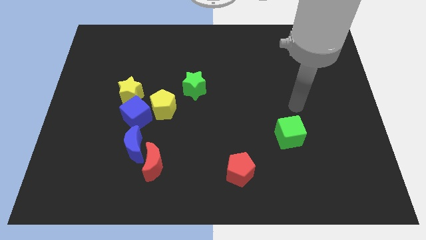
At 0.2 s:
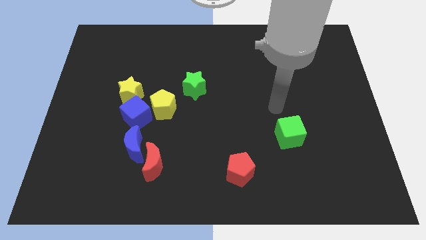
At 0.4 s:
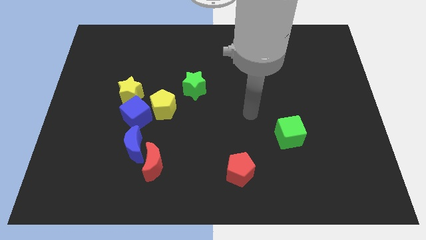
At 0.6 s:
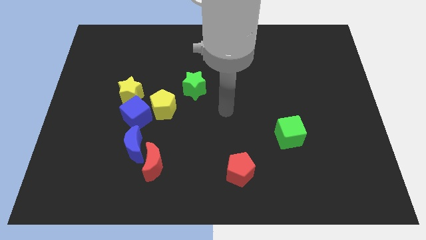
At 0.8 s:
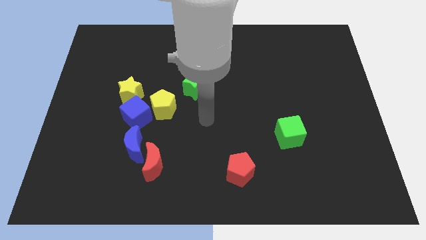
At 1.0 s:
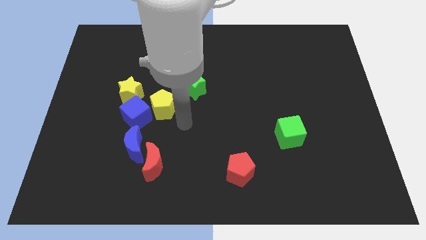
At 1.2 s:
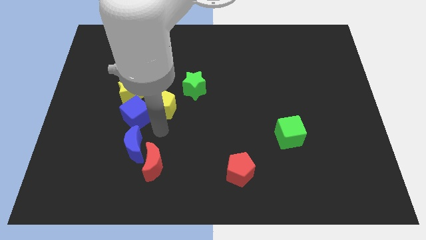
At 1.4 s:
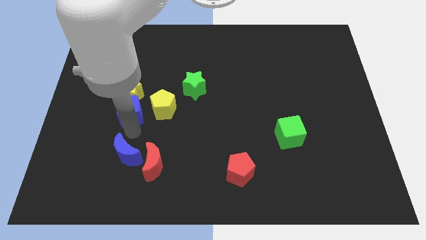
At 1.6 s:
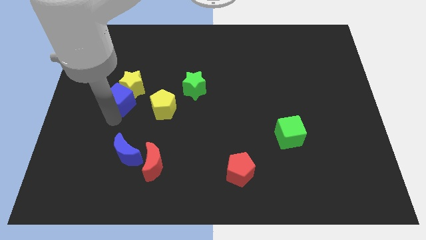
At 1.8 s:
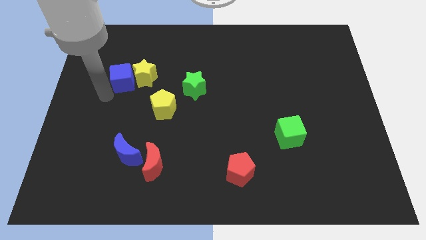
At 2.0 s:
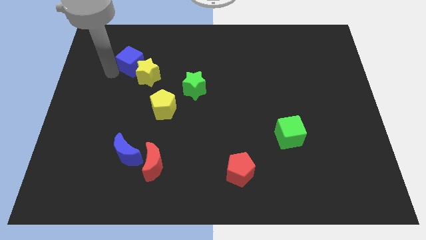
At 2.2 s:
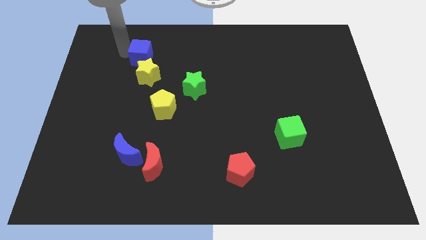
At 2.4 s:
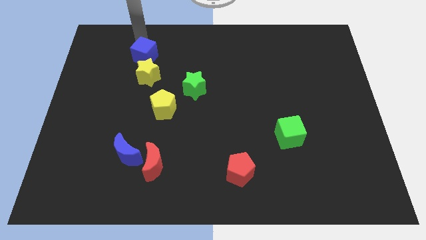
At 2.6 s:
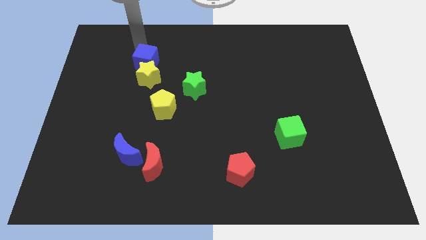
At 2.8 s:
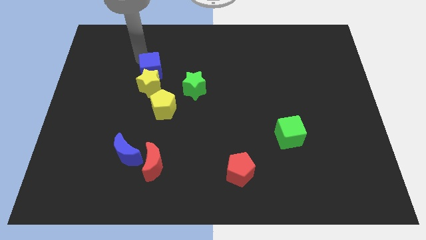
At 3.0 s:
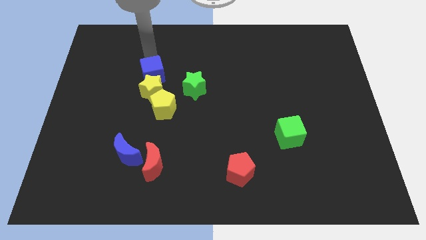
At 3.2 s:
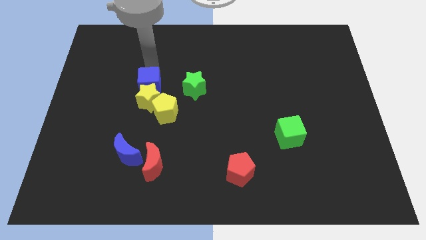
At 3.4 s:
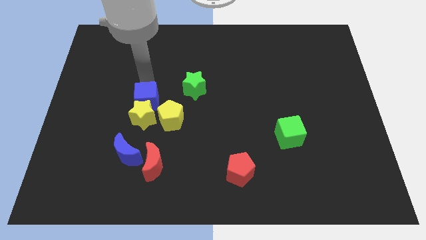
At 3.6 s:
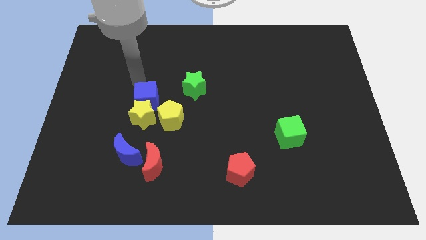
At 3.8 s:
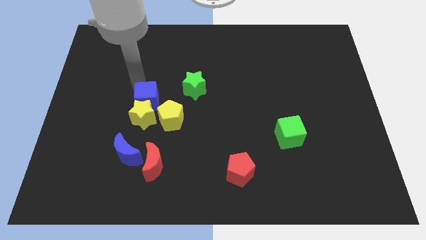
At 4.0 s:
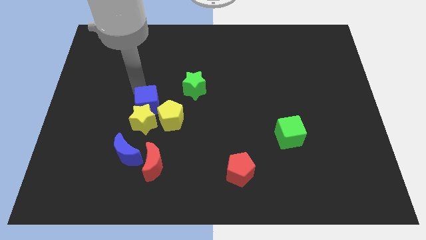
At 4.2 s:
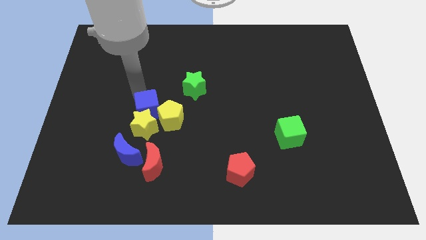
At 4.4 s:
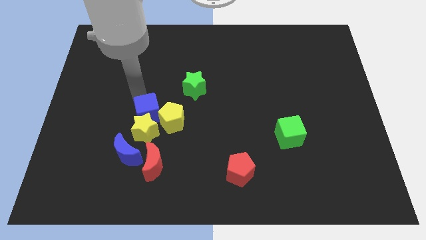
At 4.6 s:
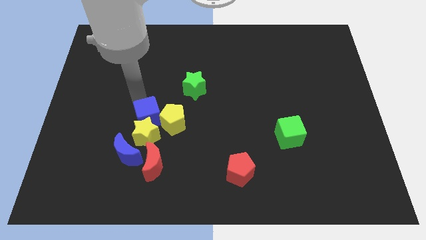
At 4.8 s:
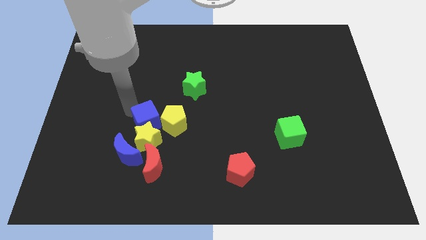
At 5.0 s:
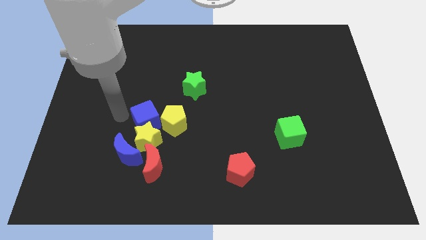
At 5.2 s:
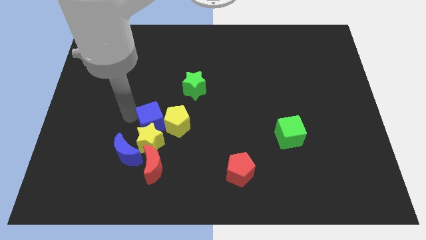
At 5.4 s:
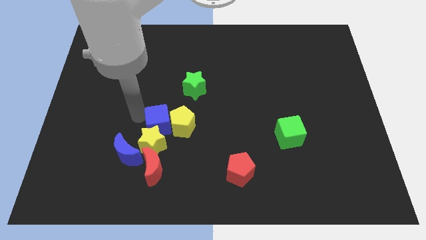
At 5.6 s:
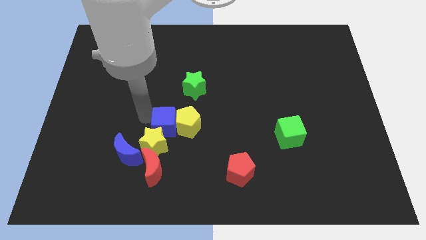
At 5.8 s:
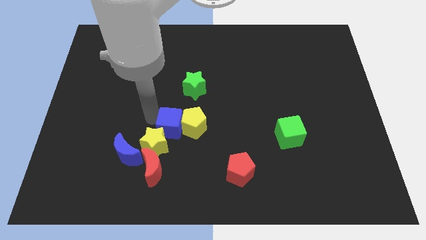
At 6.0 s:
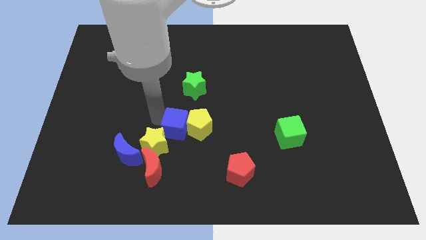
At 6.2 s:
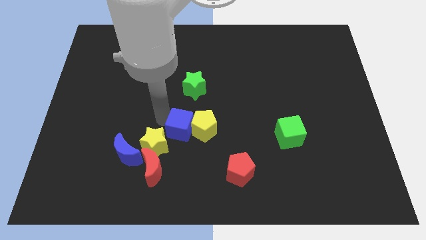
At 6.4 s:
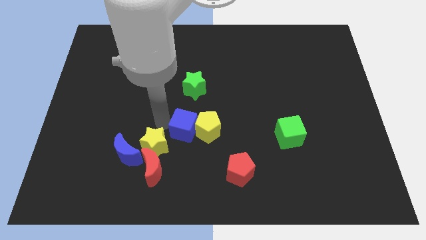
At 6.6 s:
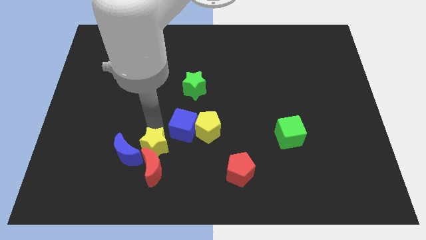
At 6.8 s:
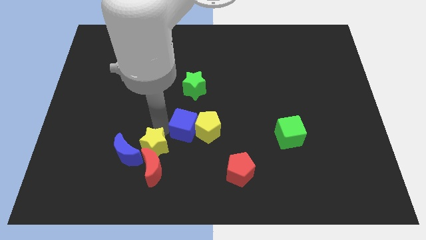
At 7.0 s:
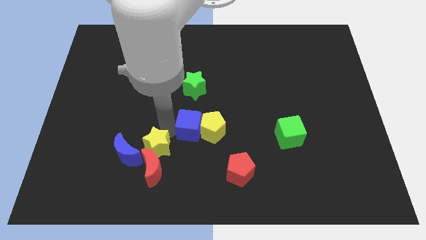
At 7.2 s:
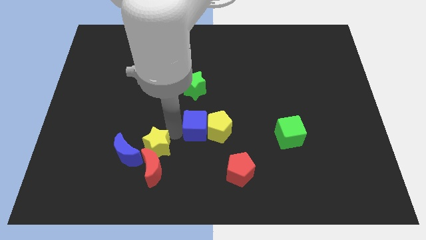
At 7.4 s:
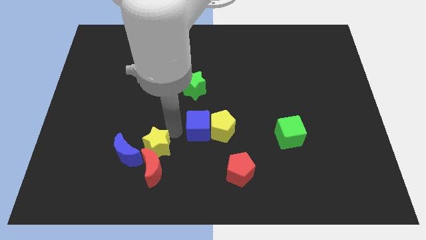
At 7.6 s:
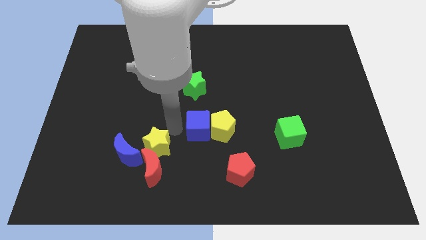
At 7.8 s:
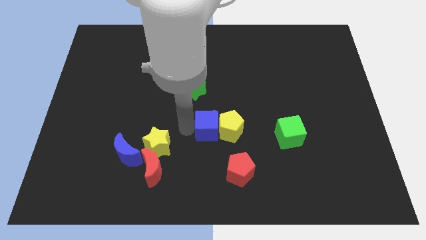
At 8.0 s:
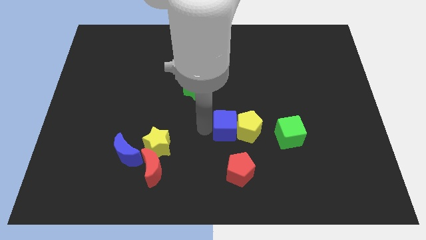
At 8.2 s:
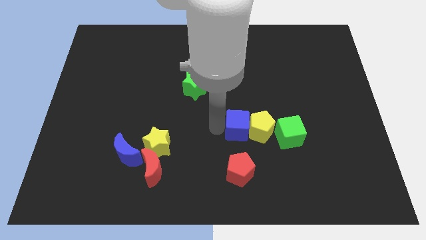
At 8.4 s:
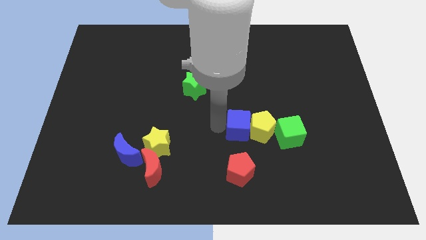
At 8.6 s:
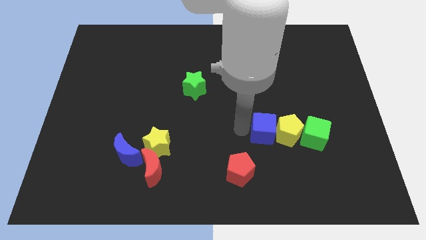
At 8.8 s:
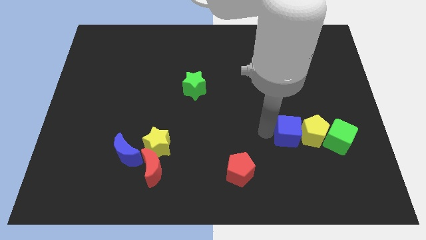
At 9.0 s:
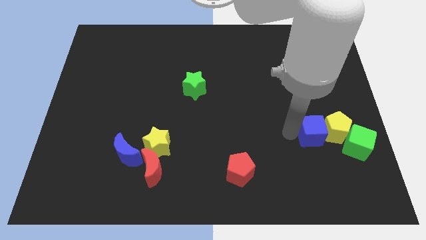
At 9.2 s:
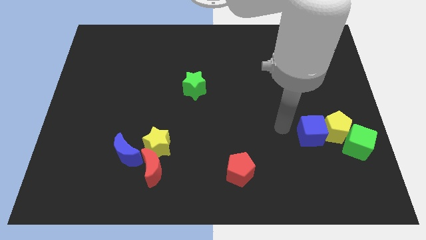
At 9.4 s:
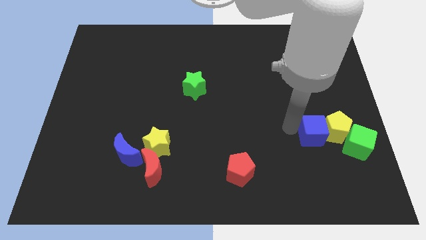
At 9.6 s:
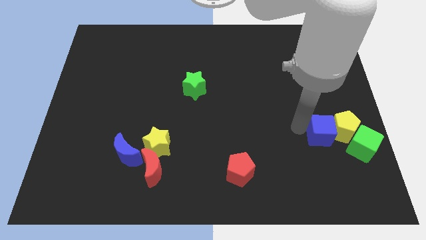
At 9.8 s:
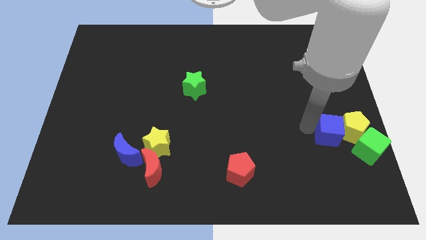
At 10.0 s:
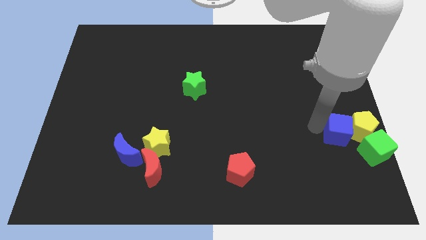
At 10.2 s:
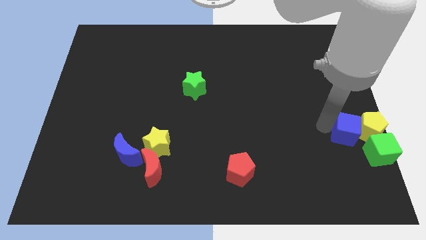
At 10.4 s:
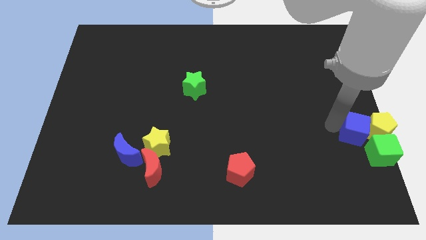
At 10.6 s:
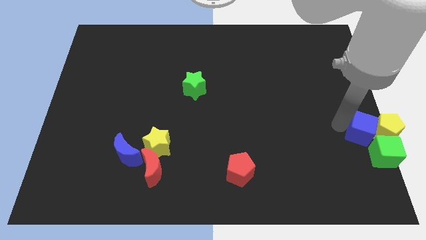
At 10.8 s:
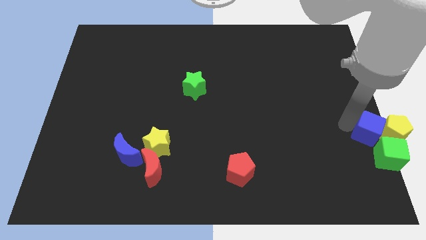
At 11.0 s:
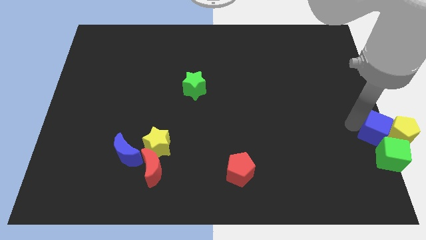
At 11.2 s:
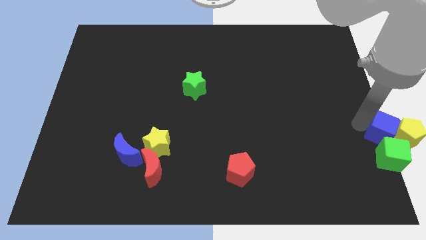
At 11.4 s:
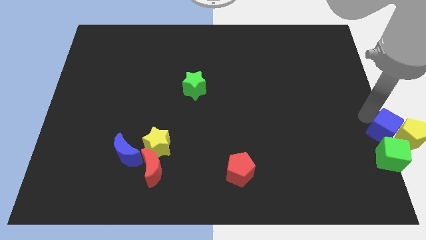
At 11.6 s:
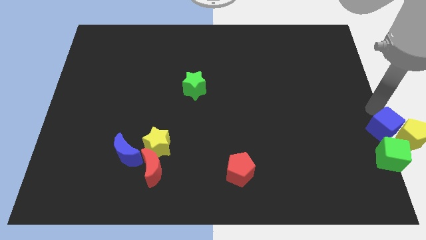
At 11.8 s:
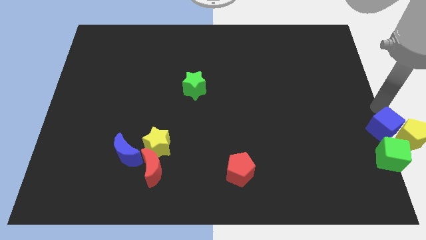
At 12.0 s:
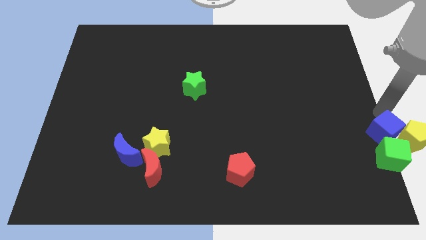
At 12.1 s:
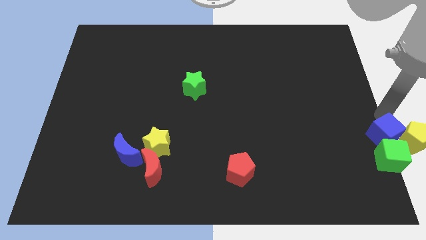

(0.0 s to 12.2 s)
push the blue cube to the green cube

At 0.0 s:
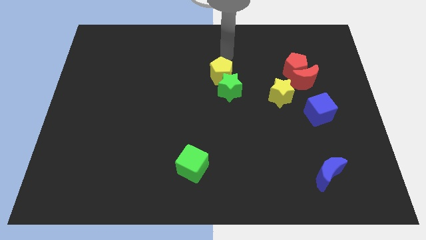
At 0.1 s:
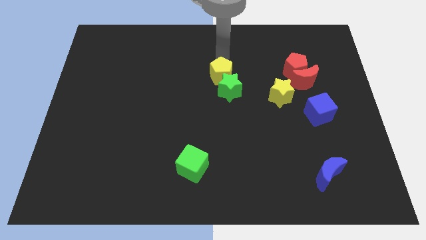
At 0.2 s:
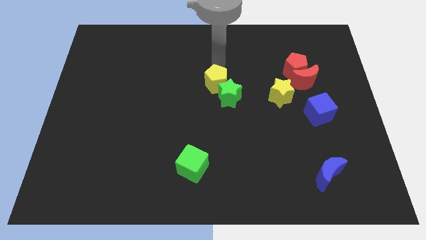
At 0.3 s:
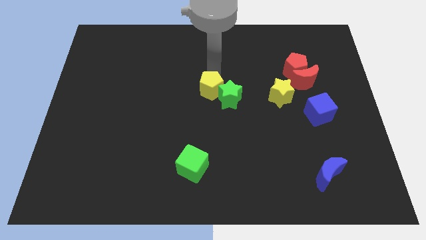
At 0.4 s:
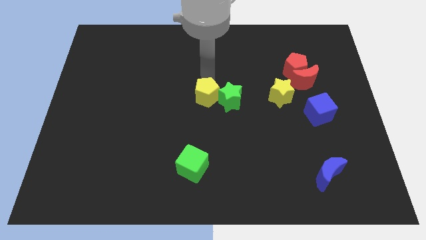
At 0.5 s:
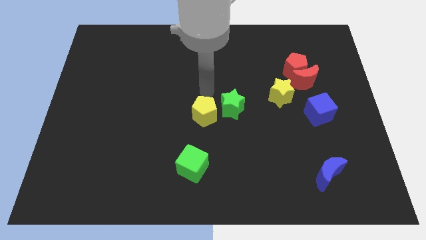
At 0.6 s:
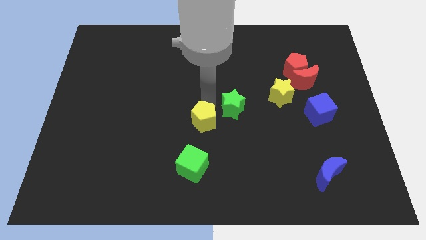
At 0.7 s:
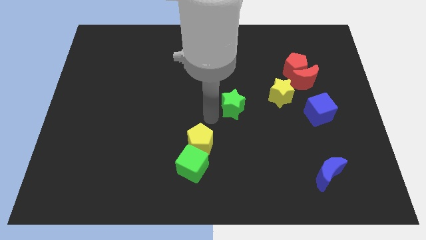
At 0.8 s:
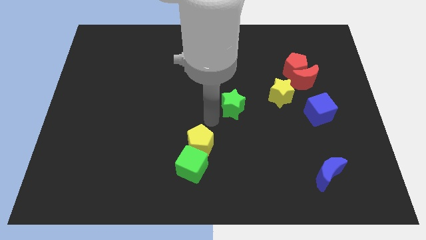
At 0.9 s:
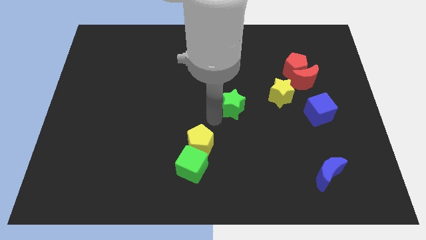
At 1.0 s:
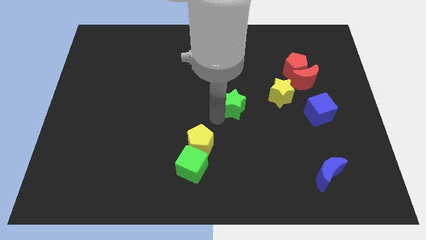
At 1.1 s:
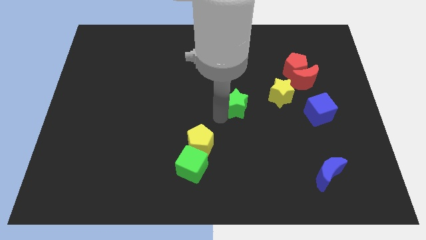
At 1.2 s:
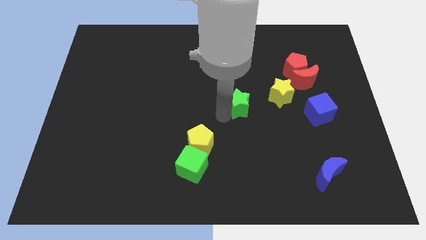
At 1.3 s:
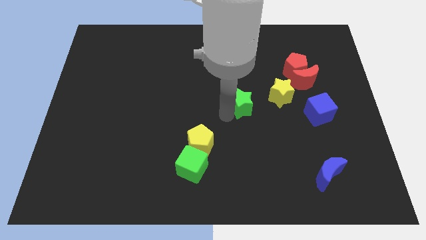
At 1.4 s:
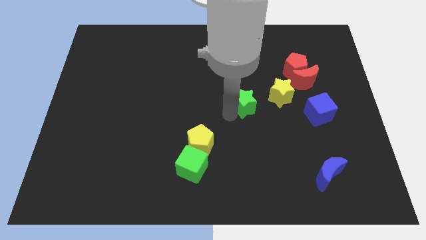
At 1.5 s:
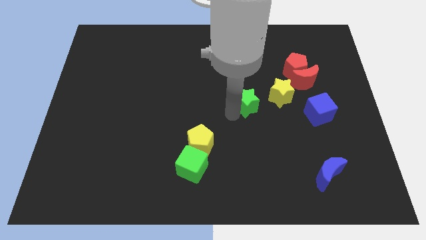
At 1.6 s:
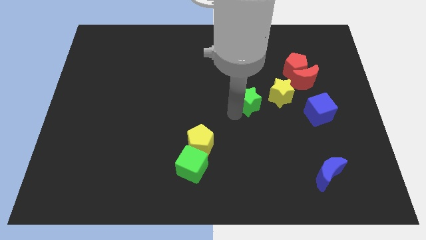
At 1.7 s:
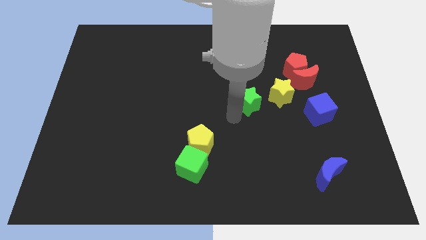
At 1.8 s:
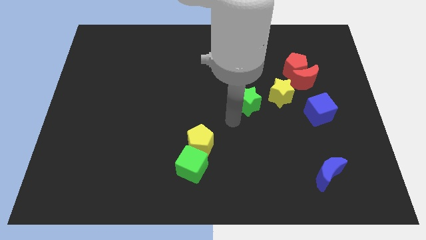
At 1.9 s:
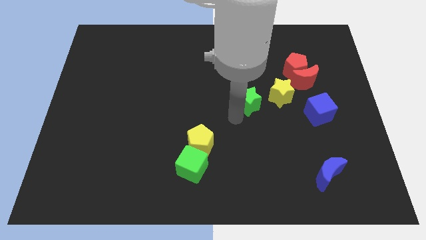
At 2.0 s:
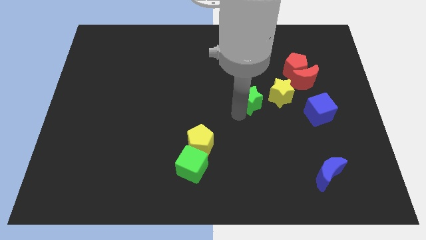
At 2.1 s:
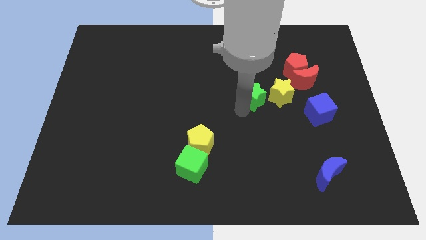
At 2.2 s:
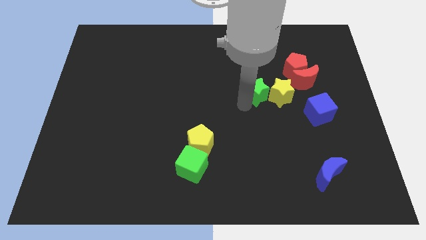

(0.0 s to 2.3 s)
move the green star to the yellow star
